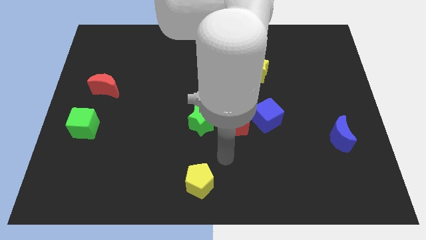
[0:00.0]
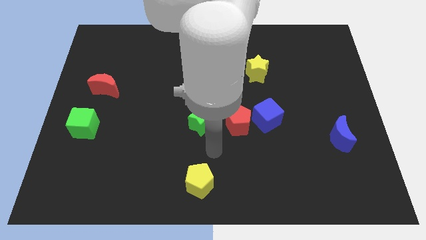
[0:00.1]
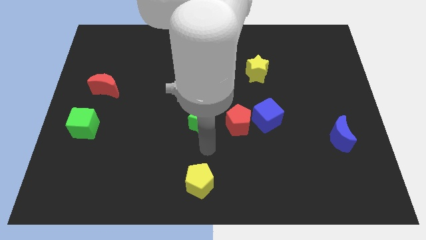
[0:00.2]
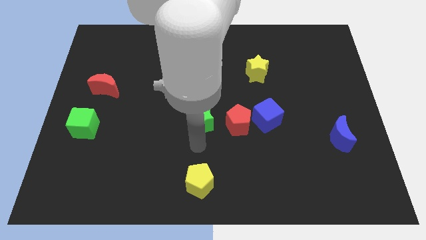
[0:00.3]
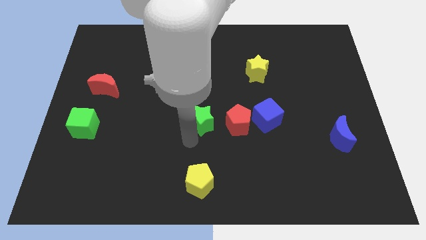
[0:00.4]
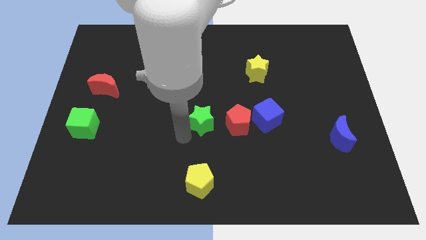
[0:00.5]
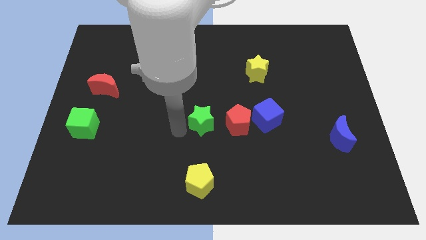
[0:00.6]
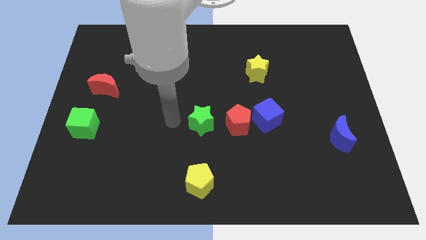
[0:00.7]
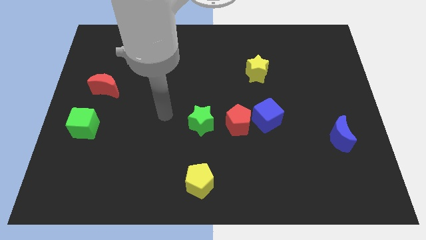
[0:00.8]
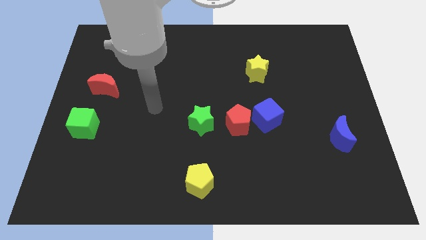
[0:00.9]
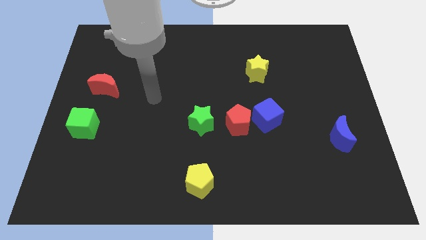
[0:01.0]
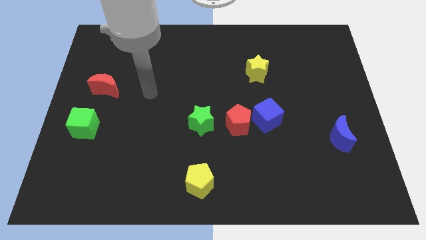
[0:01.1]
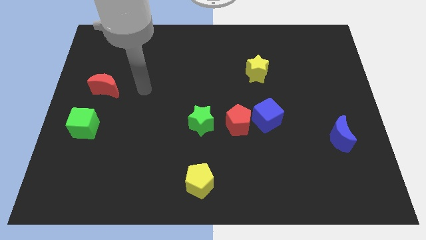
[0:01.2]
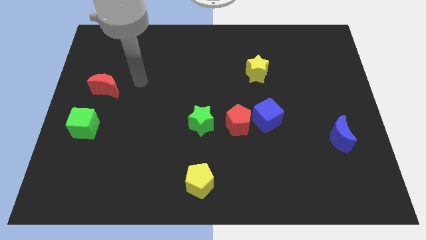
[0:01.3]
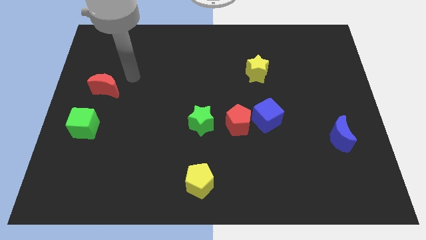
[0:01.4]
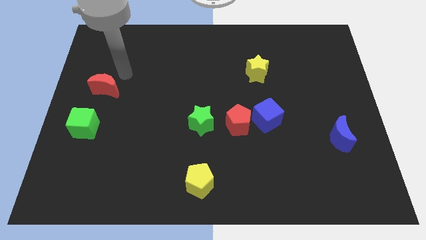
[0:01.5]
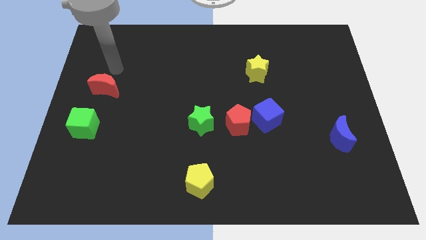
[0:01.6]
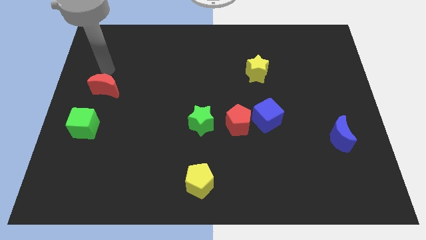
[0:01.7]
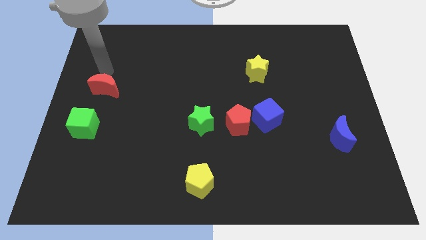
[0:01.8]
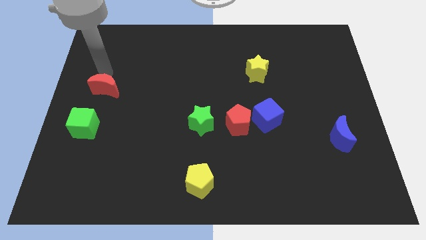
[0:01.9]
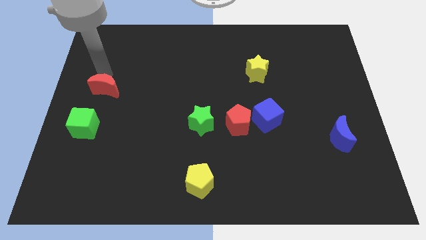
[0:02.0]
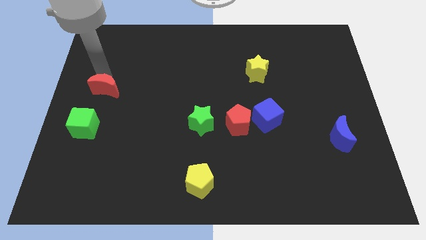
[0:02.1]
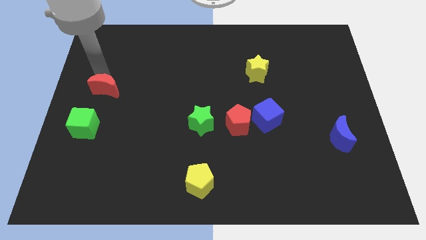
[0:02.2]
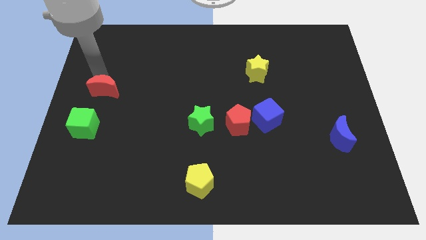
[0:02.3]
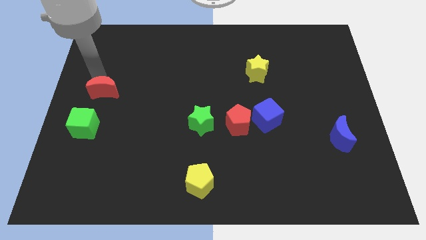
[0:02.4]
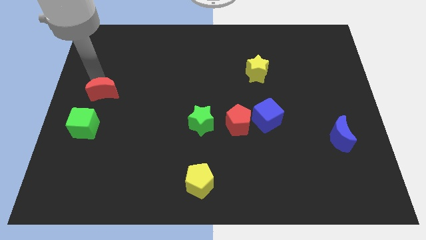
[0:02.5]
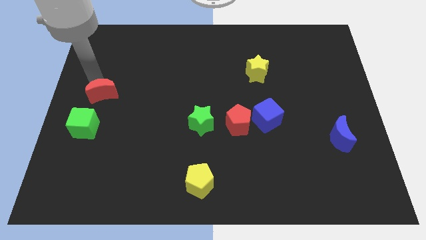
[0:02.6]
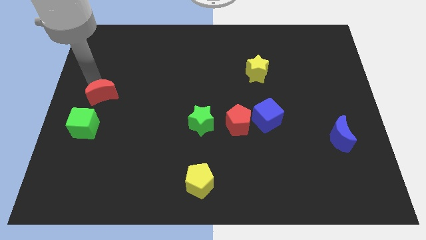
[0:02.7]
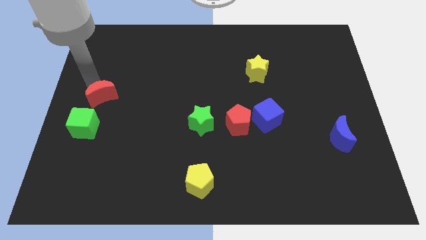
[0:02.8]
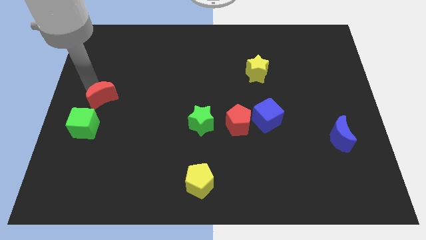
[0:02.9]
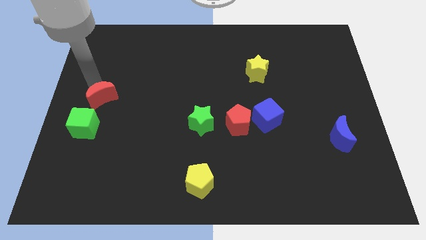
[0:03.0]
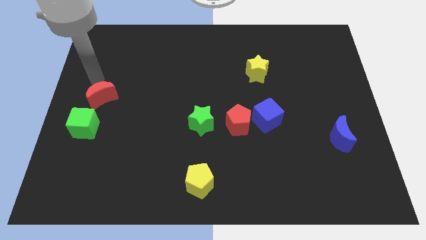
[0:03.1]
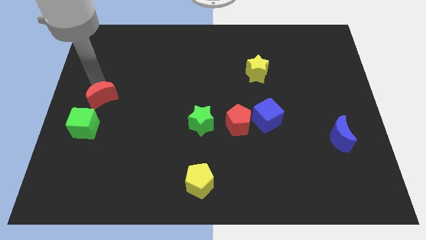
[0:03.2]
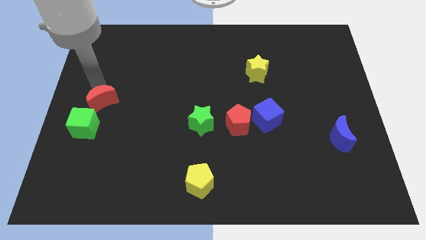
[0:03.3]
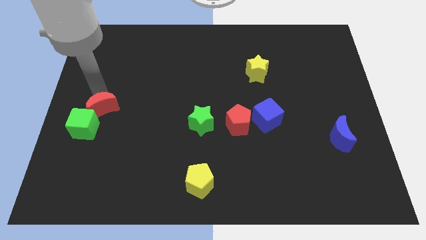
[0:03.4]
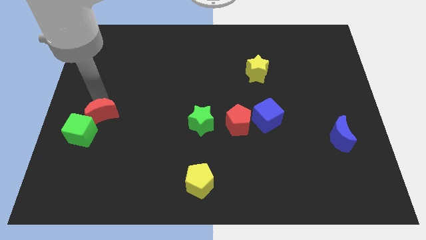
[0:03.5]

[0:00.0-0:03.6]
push the red moon downwards a little bit

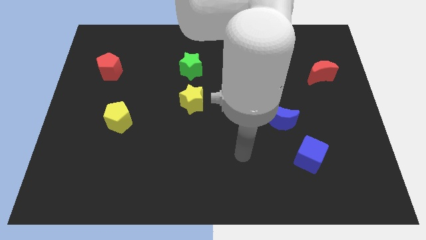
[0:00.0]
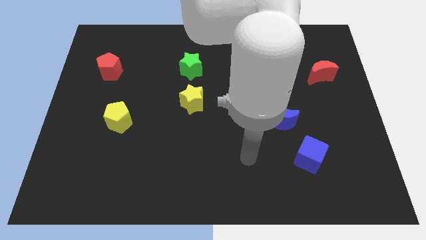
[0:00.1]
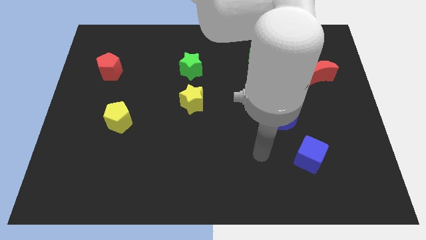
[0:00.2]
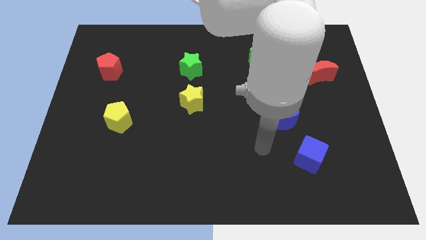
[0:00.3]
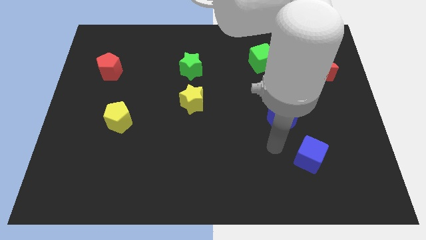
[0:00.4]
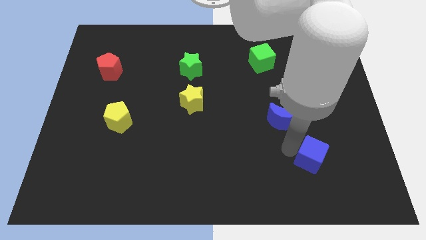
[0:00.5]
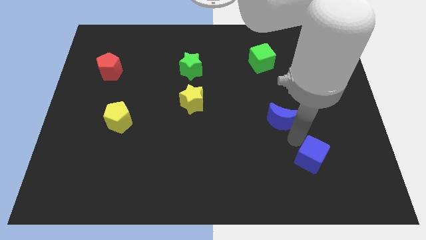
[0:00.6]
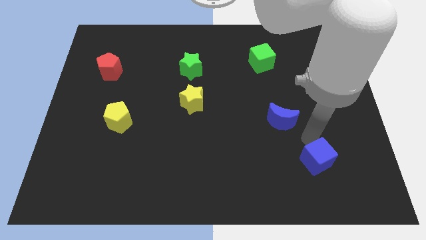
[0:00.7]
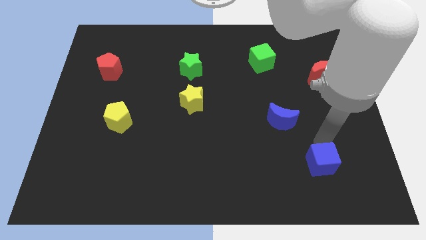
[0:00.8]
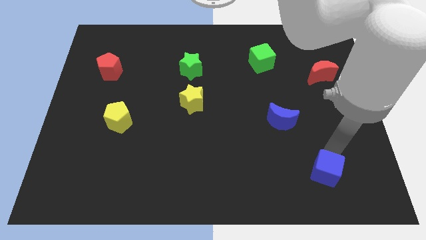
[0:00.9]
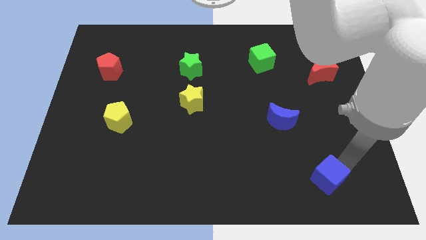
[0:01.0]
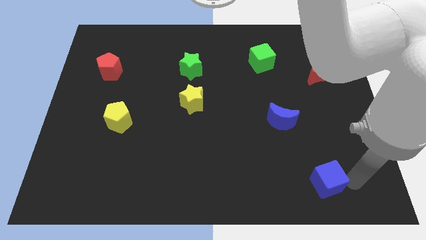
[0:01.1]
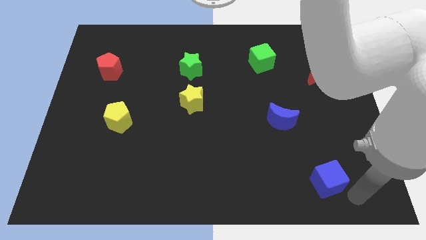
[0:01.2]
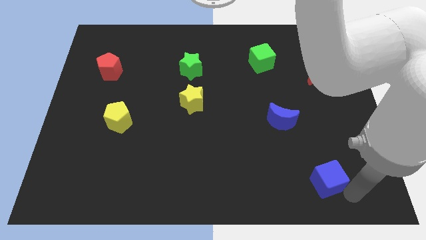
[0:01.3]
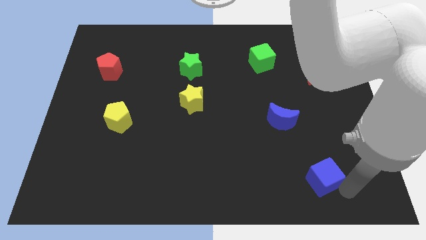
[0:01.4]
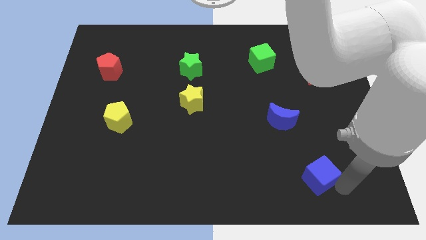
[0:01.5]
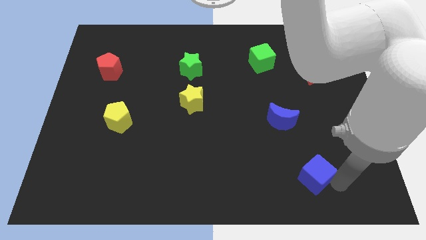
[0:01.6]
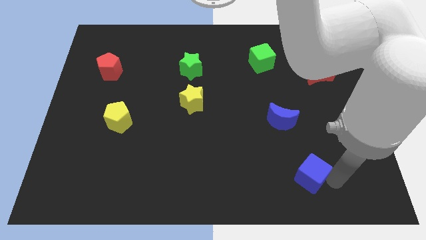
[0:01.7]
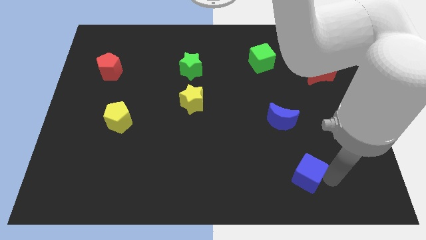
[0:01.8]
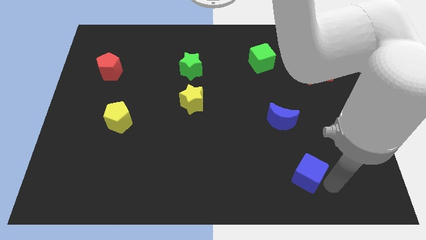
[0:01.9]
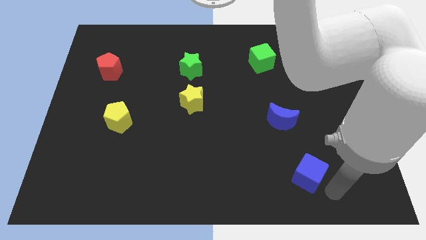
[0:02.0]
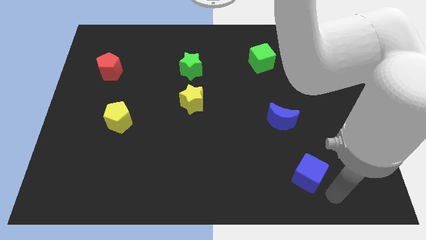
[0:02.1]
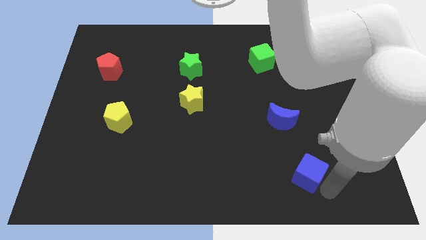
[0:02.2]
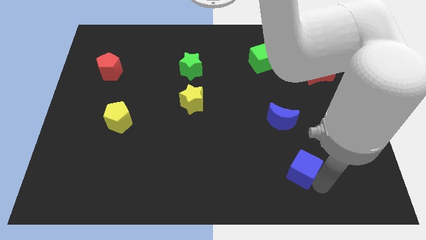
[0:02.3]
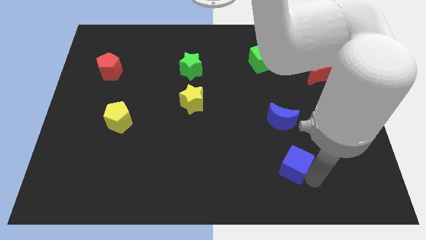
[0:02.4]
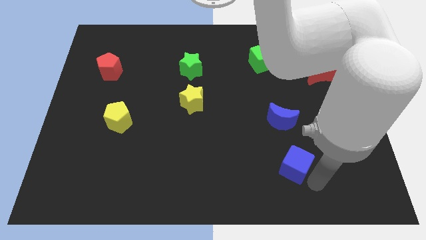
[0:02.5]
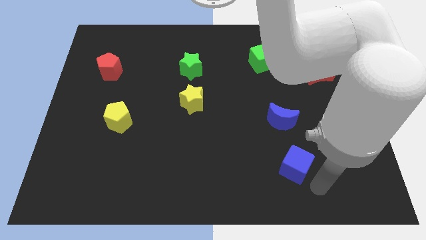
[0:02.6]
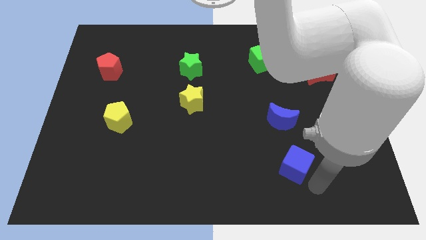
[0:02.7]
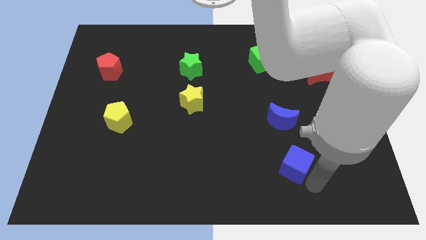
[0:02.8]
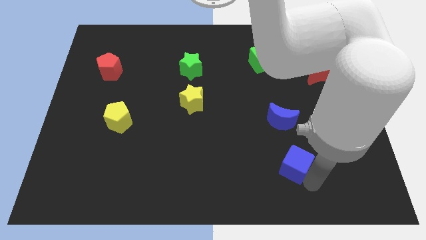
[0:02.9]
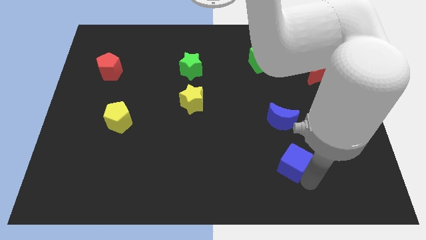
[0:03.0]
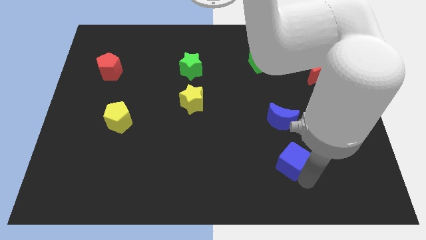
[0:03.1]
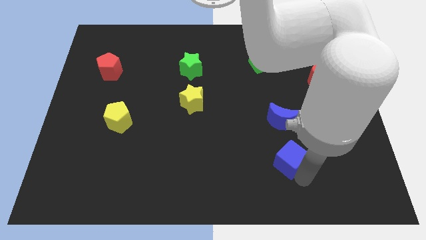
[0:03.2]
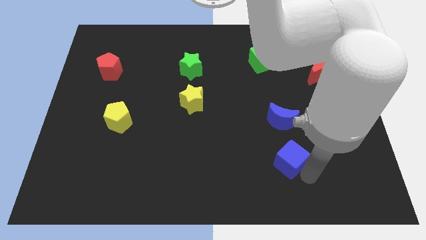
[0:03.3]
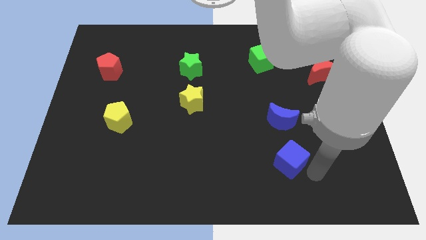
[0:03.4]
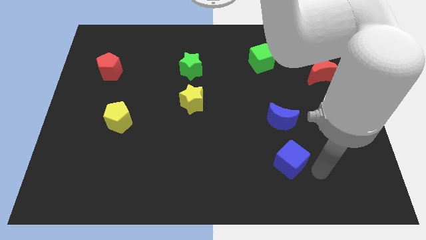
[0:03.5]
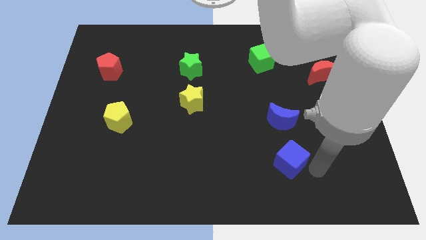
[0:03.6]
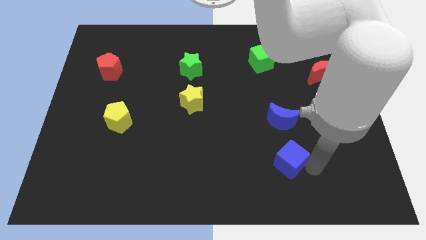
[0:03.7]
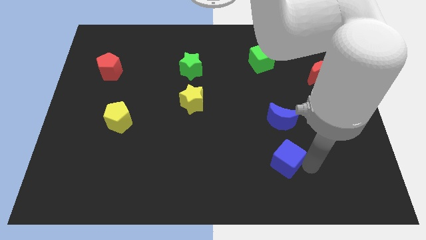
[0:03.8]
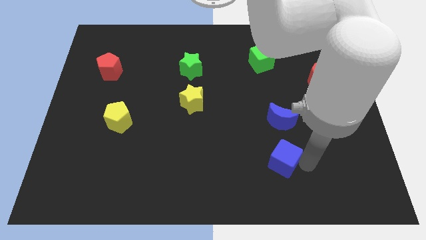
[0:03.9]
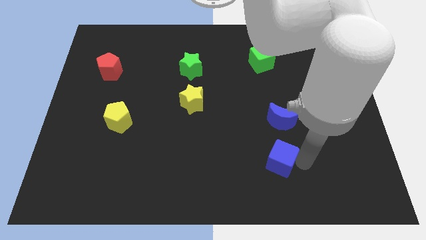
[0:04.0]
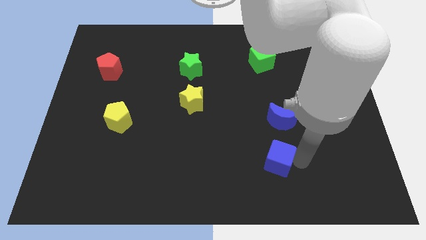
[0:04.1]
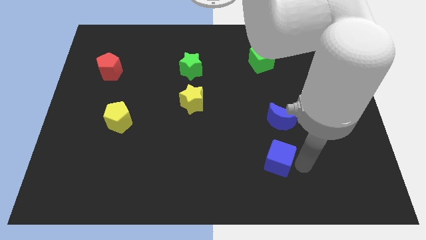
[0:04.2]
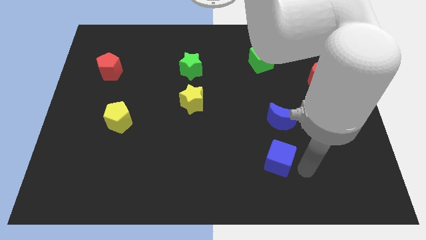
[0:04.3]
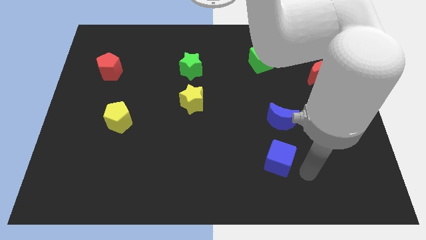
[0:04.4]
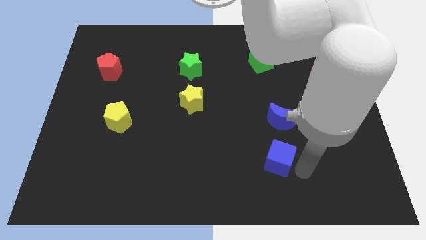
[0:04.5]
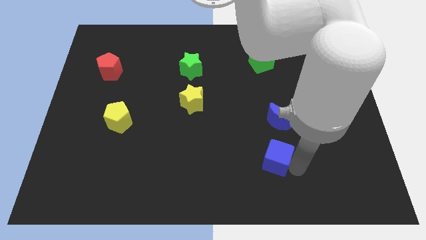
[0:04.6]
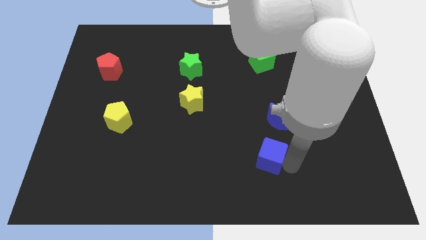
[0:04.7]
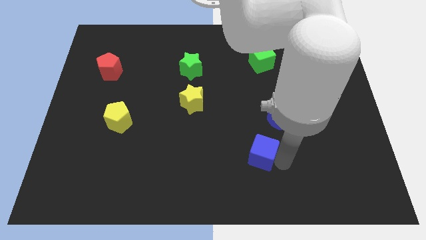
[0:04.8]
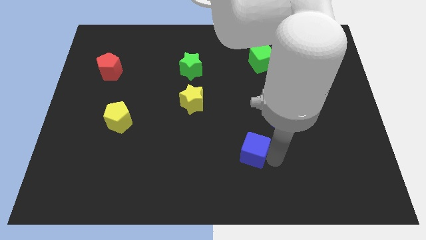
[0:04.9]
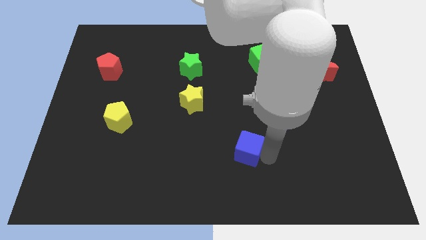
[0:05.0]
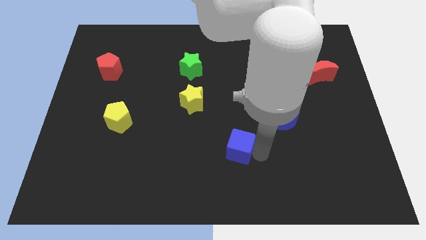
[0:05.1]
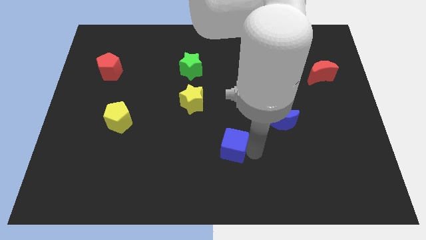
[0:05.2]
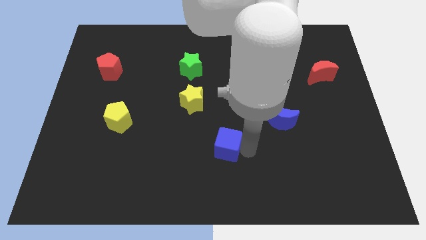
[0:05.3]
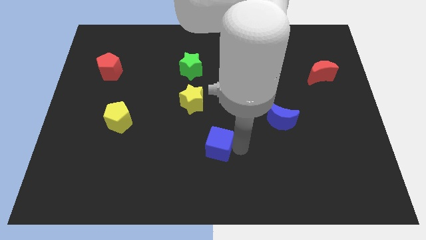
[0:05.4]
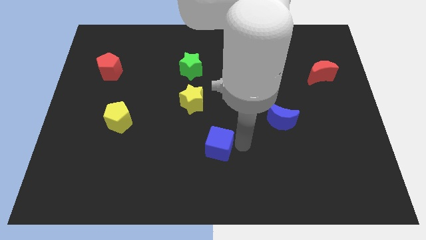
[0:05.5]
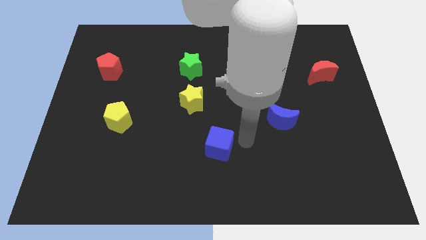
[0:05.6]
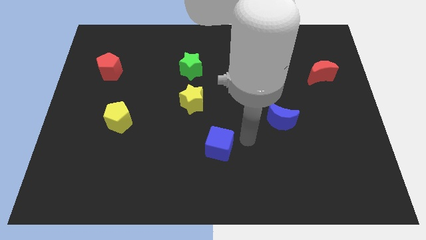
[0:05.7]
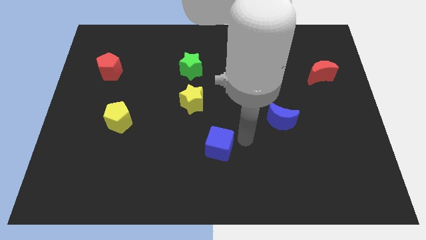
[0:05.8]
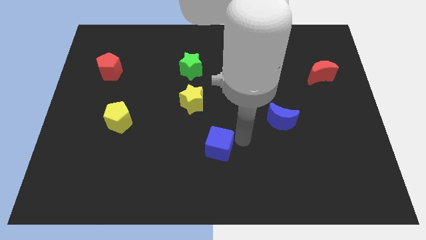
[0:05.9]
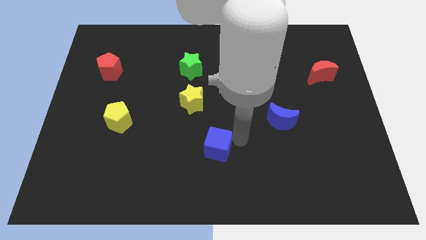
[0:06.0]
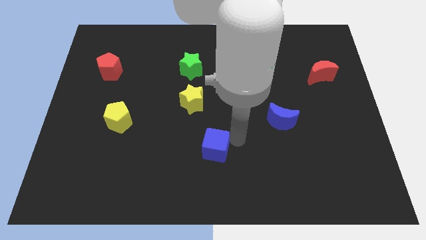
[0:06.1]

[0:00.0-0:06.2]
move the blue cube left
